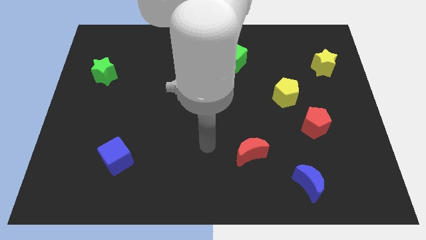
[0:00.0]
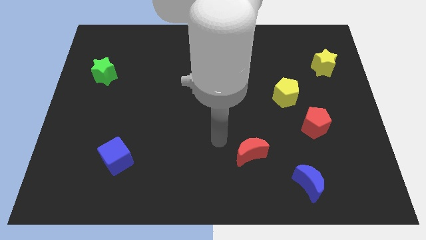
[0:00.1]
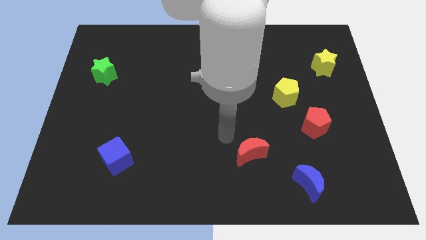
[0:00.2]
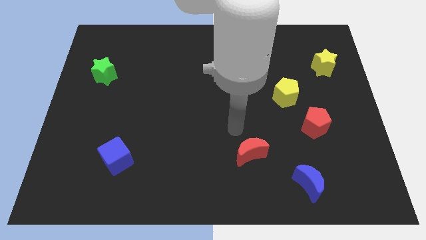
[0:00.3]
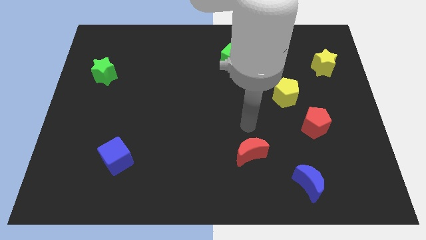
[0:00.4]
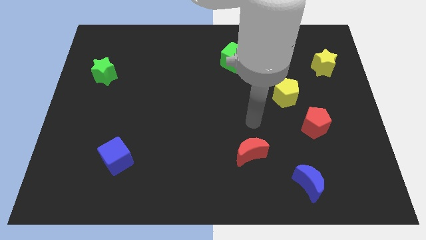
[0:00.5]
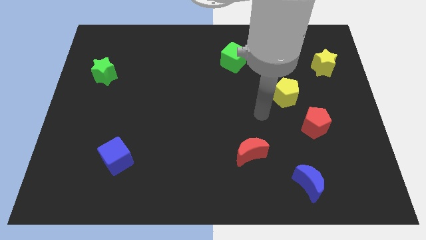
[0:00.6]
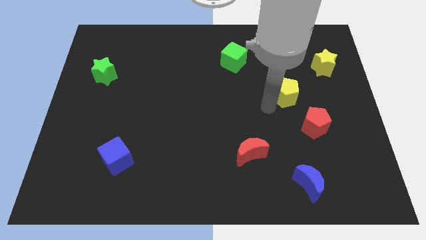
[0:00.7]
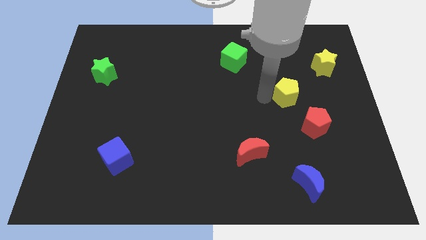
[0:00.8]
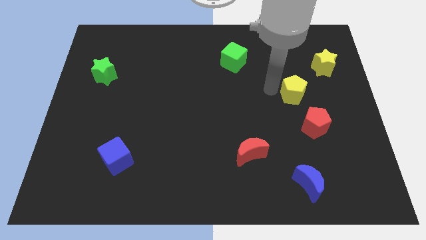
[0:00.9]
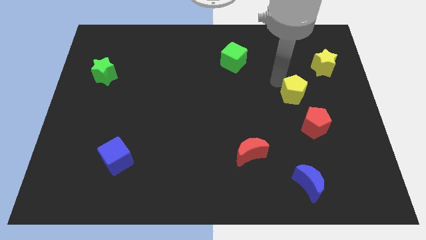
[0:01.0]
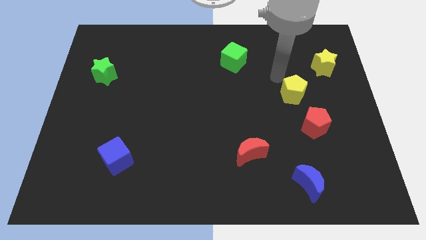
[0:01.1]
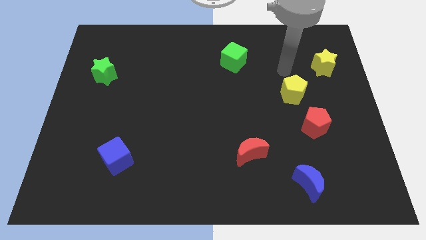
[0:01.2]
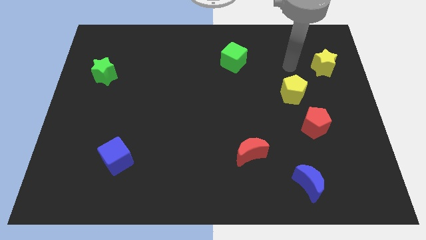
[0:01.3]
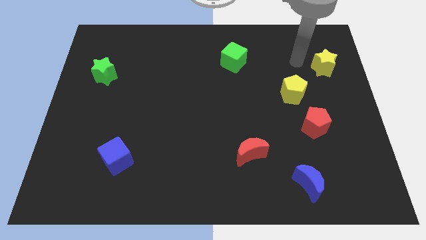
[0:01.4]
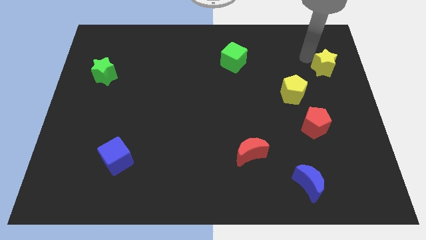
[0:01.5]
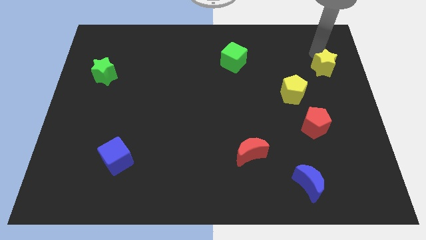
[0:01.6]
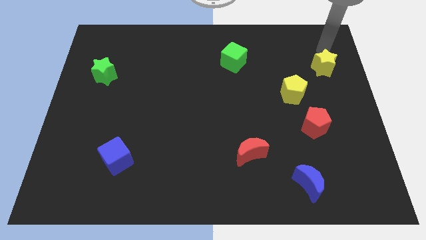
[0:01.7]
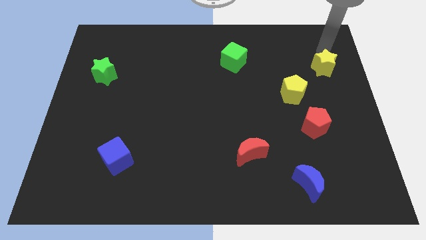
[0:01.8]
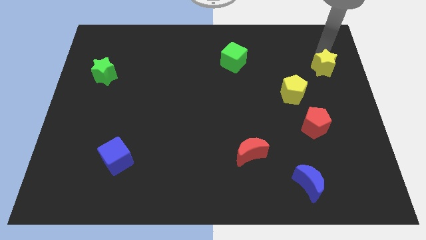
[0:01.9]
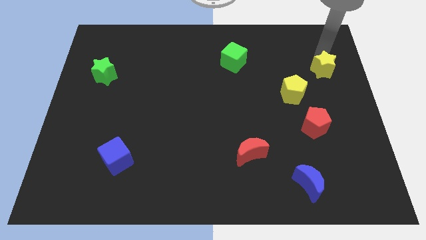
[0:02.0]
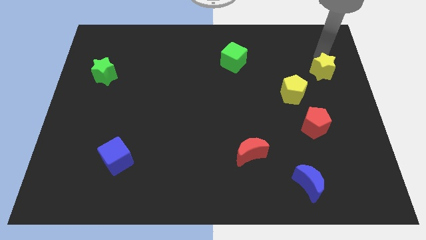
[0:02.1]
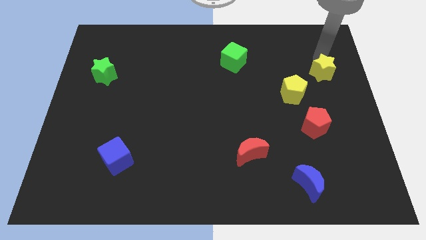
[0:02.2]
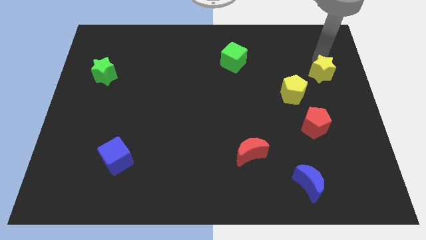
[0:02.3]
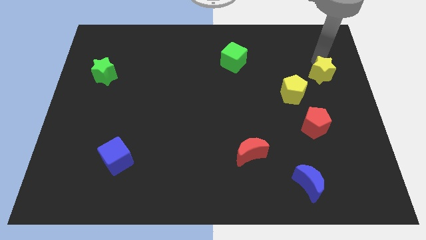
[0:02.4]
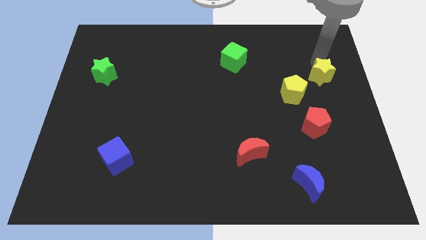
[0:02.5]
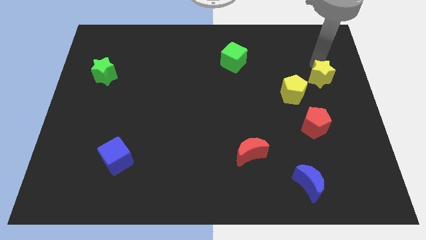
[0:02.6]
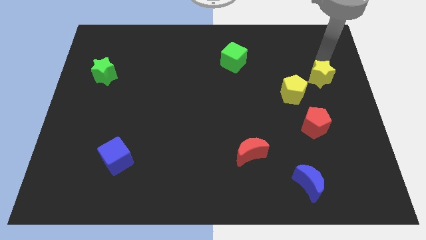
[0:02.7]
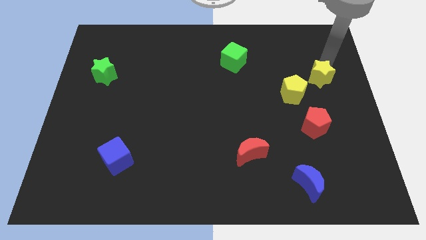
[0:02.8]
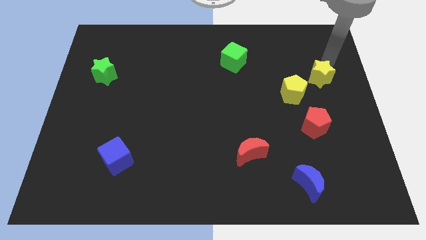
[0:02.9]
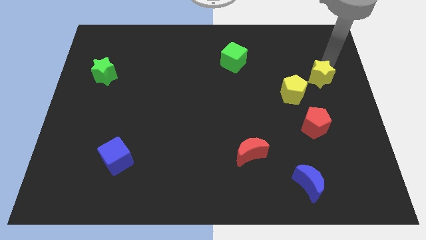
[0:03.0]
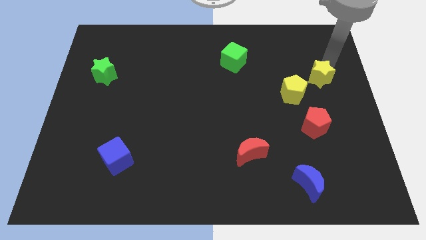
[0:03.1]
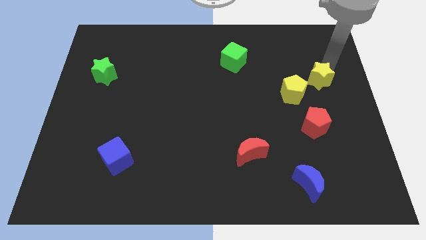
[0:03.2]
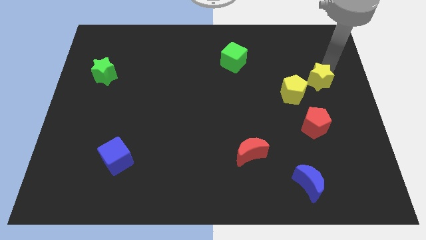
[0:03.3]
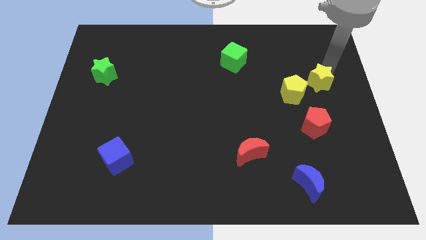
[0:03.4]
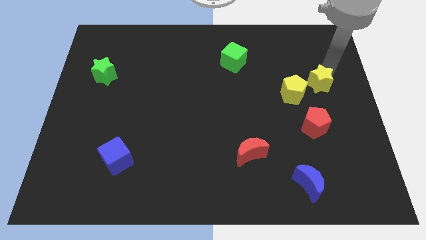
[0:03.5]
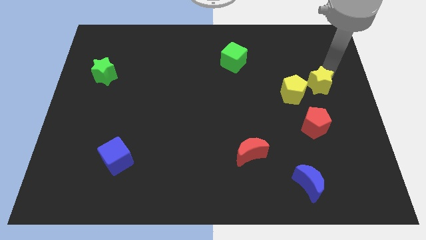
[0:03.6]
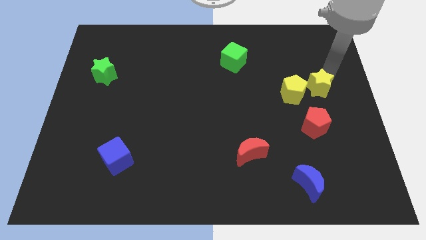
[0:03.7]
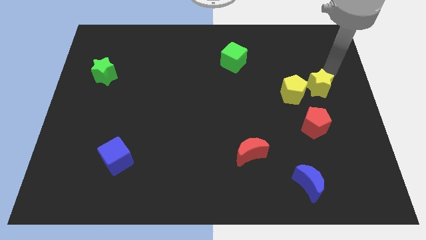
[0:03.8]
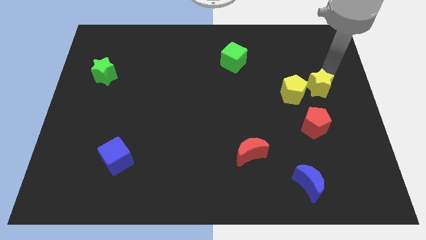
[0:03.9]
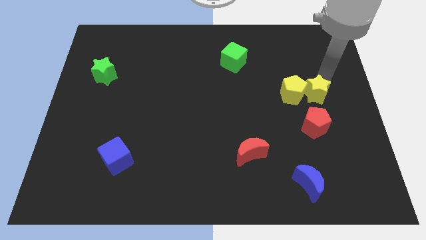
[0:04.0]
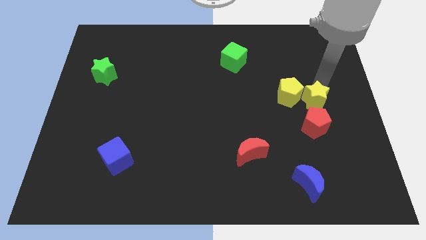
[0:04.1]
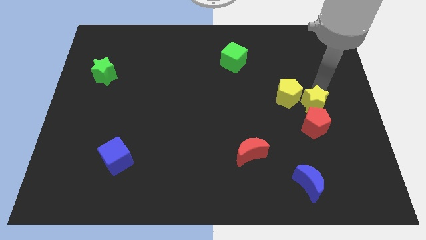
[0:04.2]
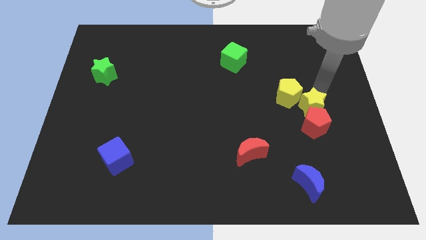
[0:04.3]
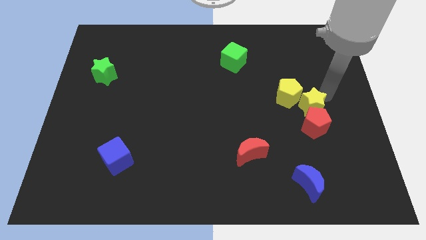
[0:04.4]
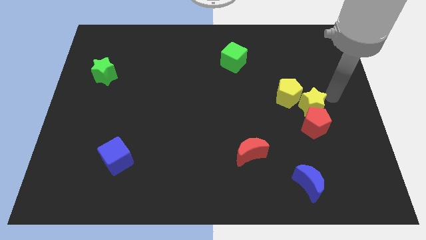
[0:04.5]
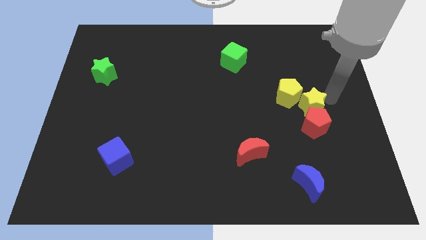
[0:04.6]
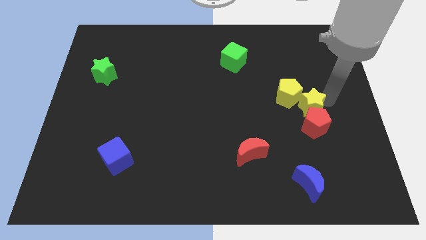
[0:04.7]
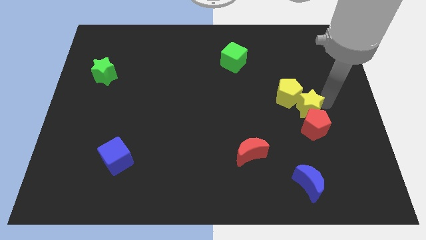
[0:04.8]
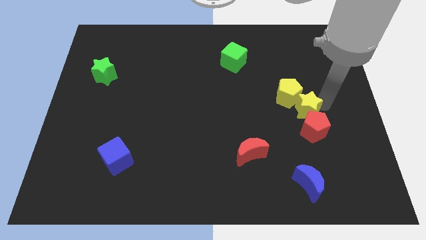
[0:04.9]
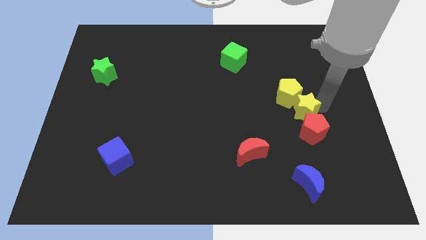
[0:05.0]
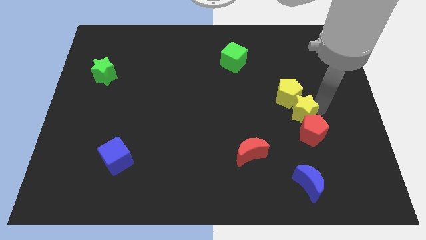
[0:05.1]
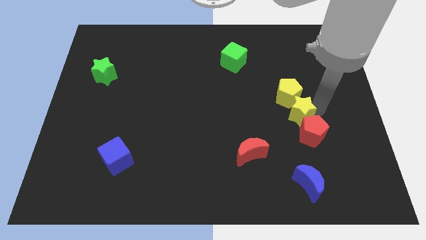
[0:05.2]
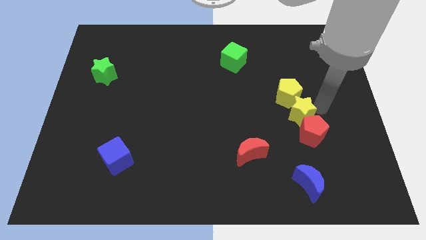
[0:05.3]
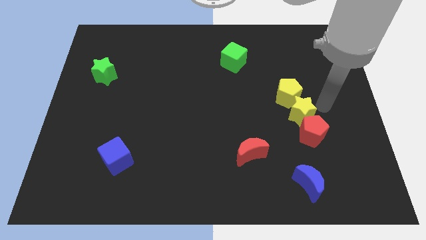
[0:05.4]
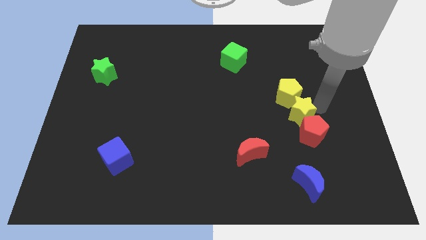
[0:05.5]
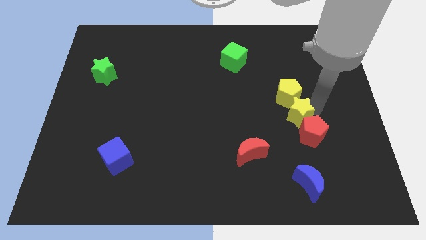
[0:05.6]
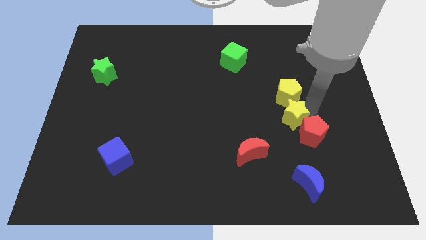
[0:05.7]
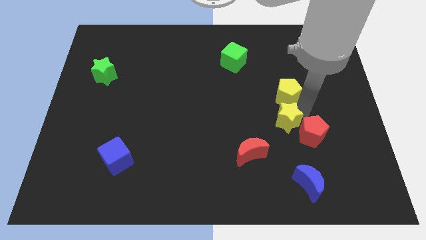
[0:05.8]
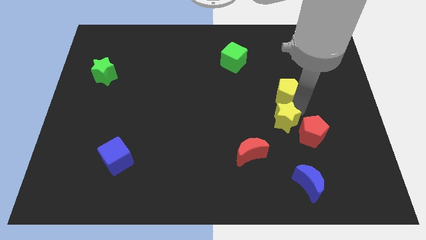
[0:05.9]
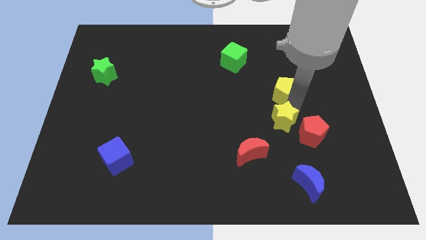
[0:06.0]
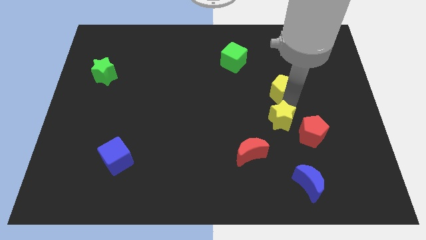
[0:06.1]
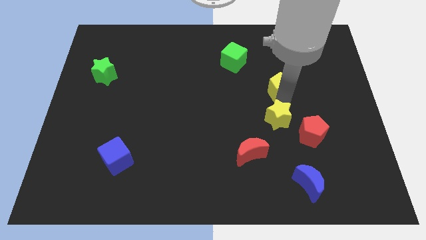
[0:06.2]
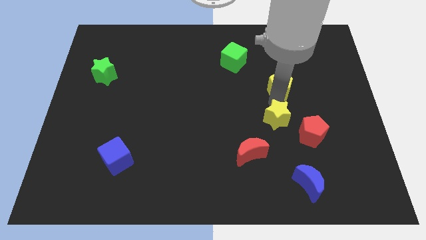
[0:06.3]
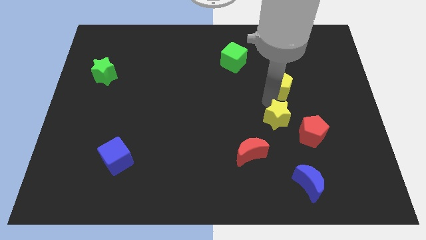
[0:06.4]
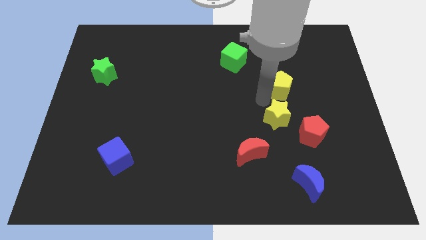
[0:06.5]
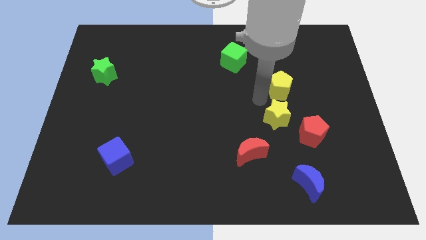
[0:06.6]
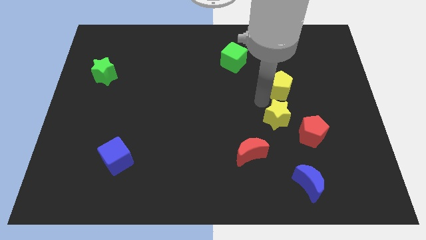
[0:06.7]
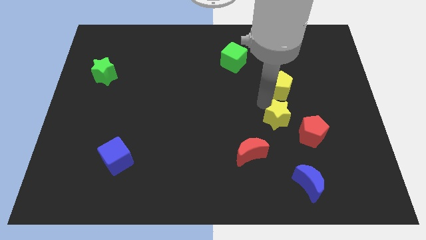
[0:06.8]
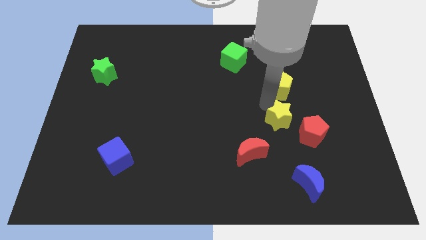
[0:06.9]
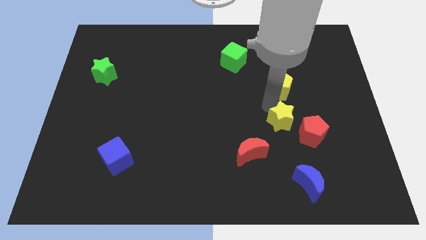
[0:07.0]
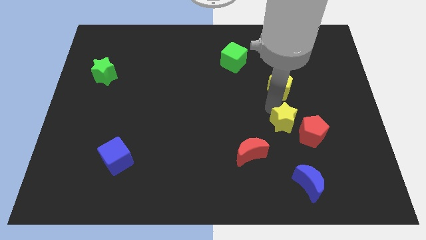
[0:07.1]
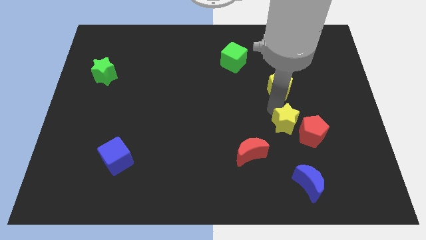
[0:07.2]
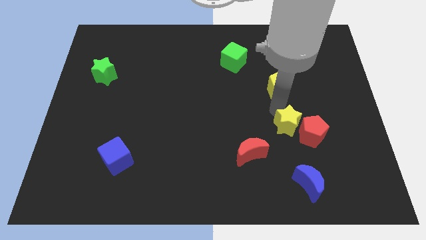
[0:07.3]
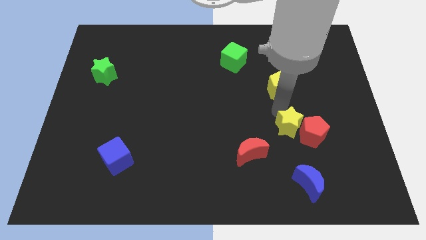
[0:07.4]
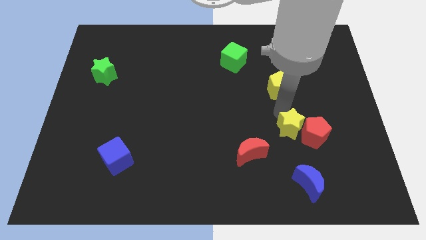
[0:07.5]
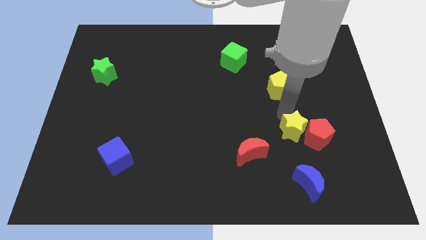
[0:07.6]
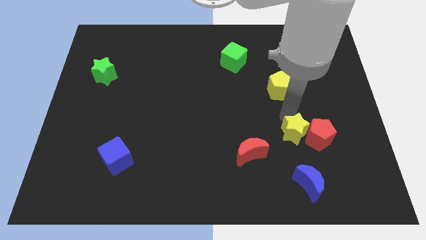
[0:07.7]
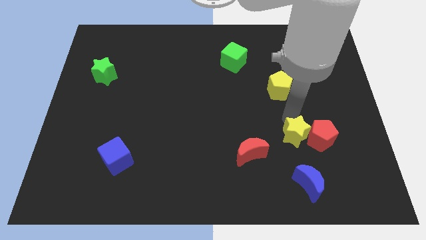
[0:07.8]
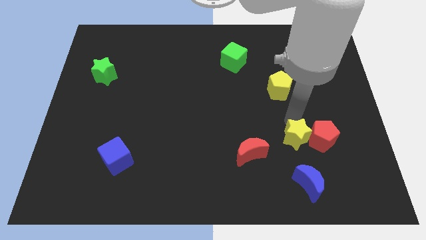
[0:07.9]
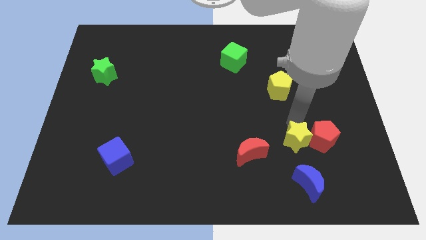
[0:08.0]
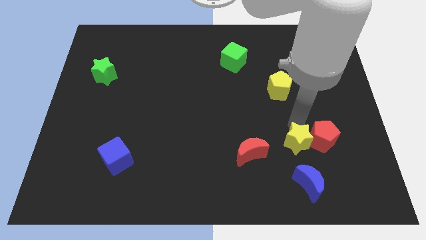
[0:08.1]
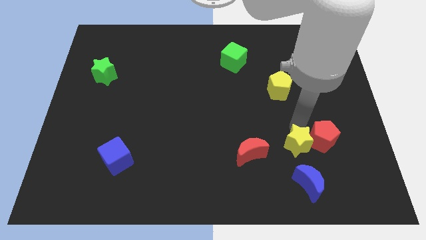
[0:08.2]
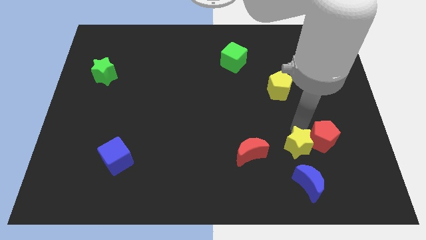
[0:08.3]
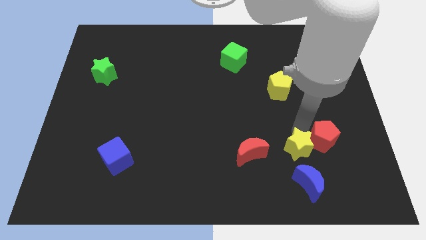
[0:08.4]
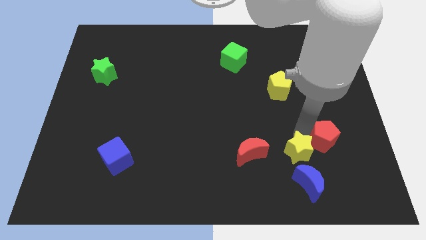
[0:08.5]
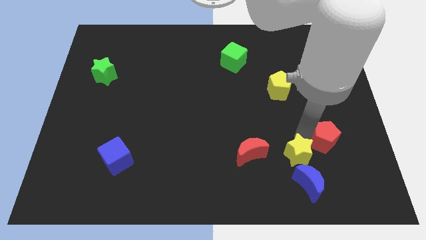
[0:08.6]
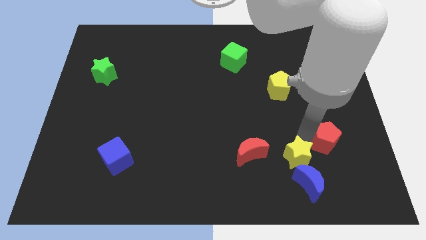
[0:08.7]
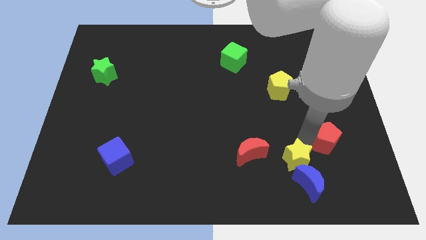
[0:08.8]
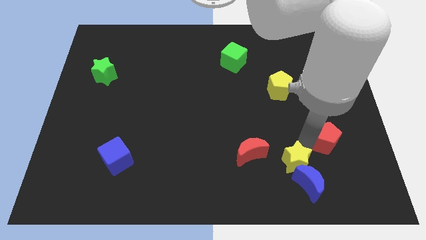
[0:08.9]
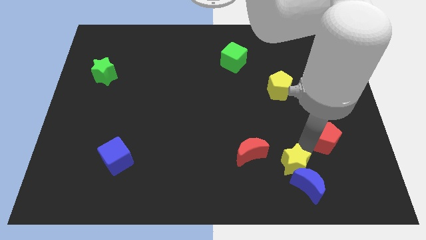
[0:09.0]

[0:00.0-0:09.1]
push the yellow star diagonally down and to the right of the red moon
